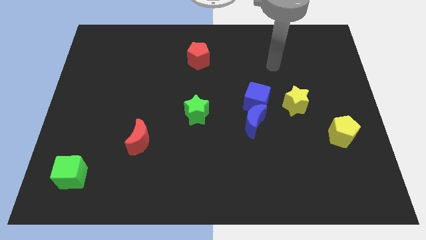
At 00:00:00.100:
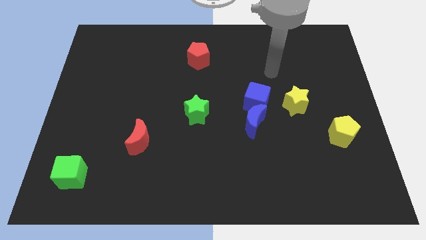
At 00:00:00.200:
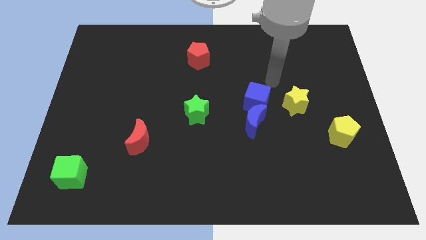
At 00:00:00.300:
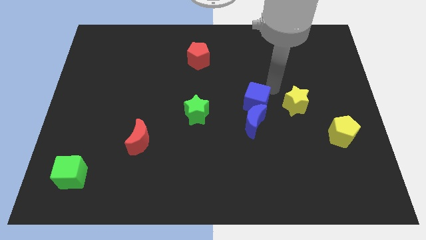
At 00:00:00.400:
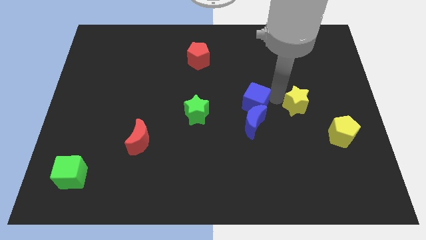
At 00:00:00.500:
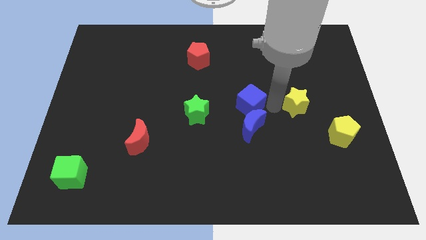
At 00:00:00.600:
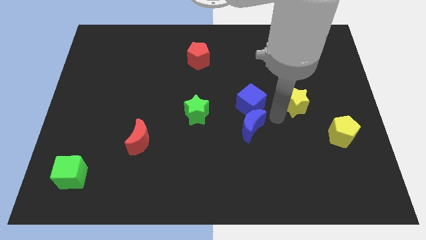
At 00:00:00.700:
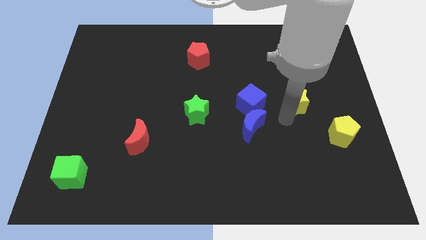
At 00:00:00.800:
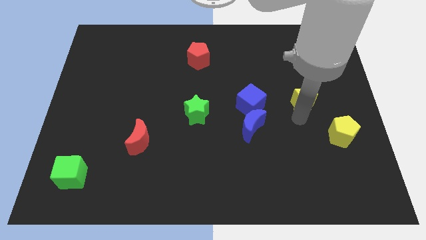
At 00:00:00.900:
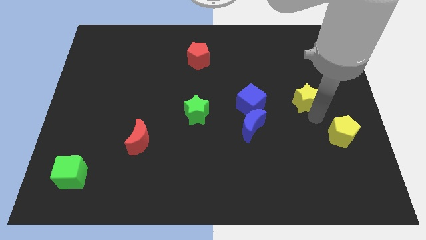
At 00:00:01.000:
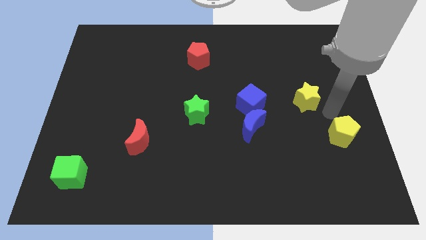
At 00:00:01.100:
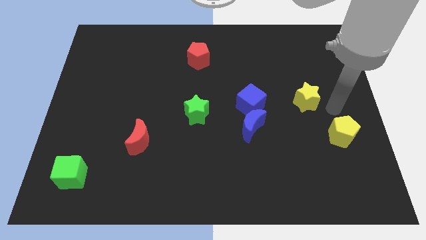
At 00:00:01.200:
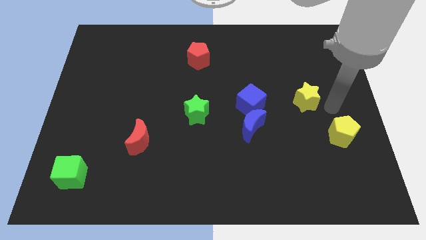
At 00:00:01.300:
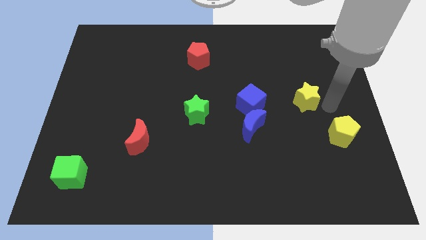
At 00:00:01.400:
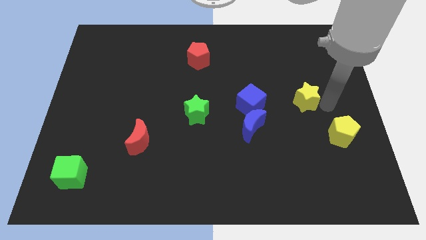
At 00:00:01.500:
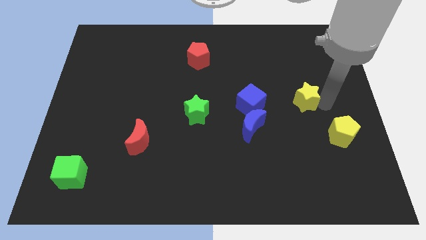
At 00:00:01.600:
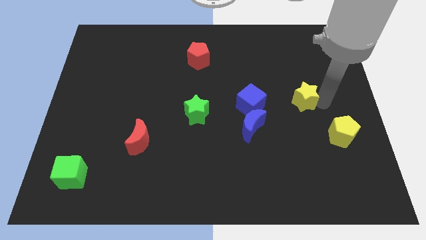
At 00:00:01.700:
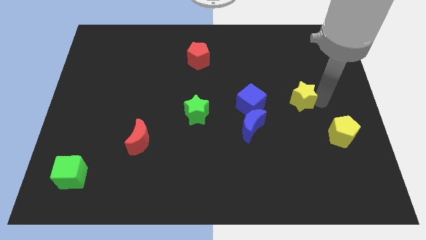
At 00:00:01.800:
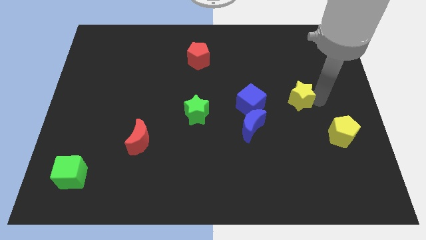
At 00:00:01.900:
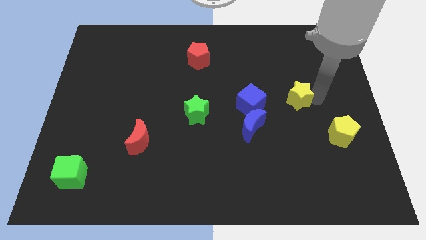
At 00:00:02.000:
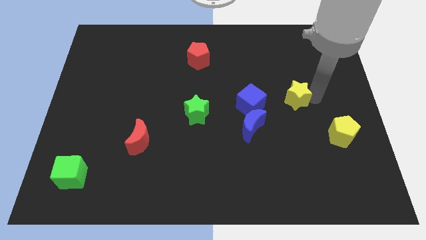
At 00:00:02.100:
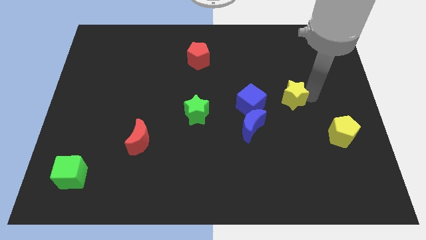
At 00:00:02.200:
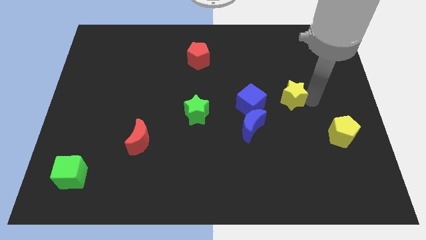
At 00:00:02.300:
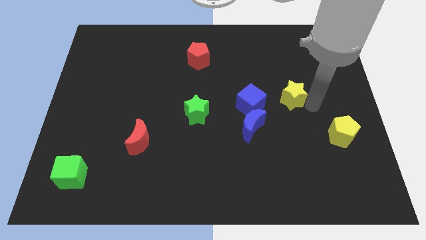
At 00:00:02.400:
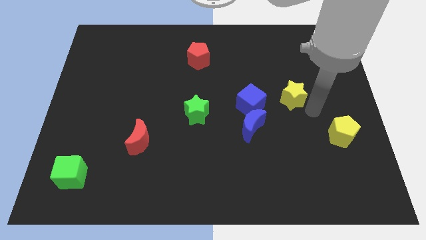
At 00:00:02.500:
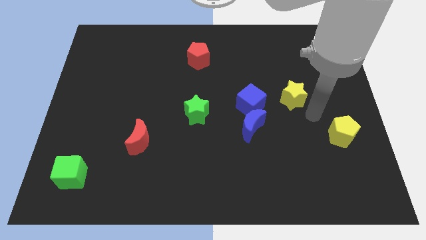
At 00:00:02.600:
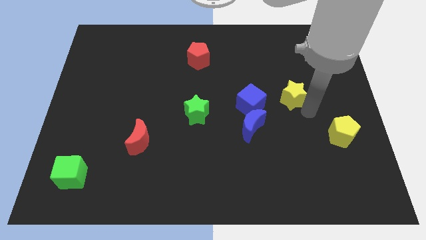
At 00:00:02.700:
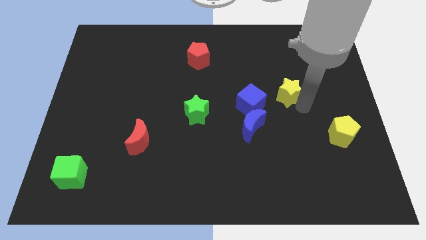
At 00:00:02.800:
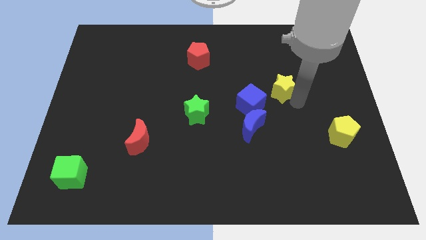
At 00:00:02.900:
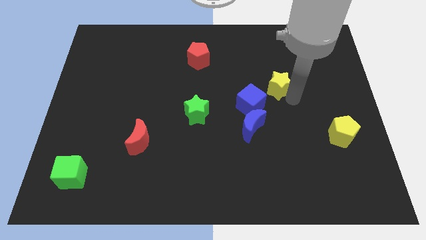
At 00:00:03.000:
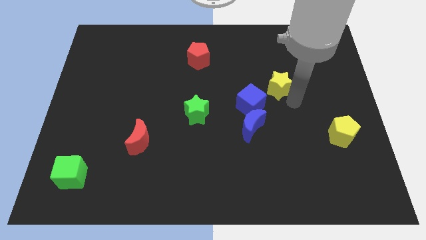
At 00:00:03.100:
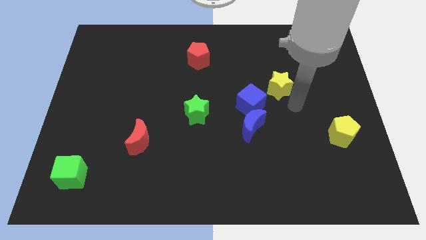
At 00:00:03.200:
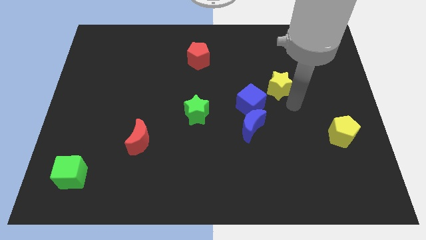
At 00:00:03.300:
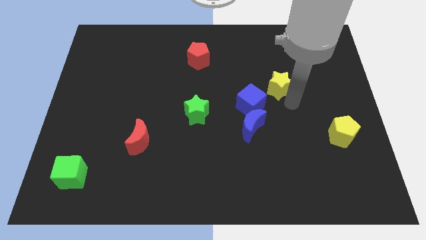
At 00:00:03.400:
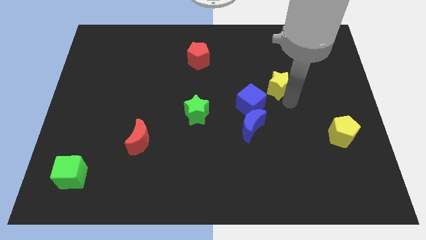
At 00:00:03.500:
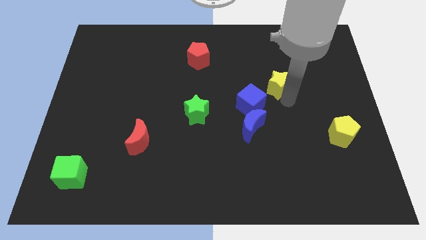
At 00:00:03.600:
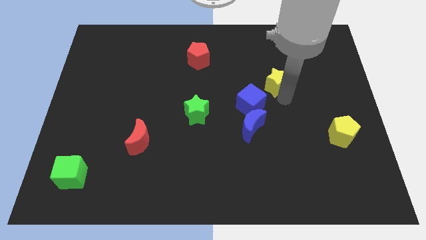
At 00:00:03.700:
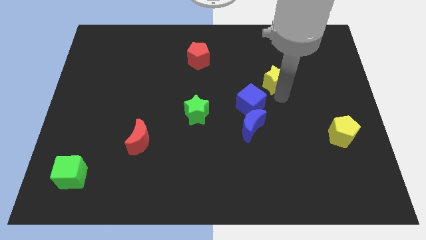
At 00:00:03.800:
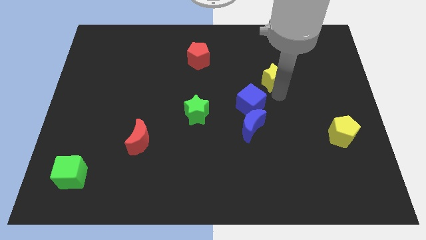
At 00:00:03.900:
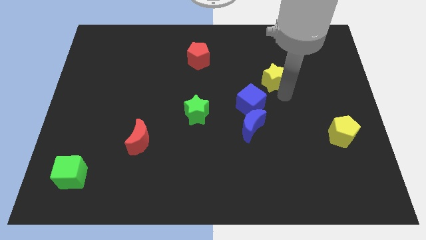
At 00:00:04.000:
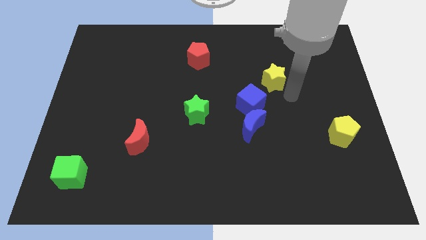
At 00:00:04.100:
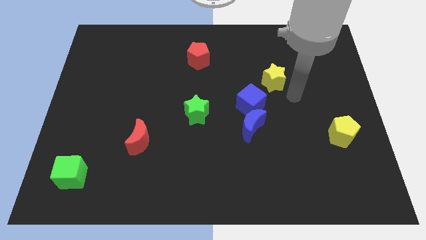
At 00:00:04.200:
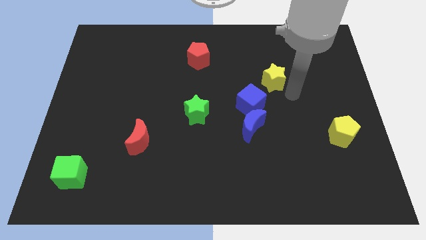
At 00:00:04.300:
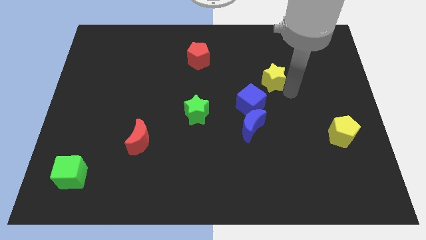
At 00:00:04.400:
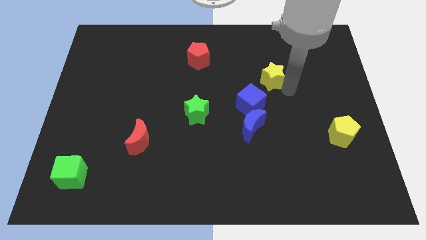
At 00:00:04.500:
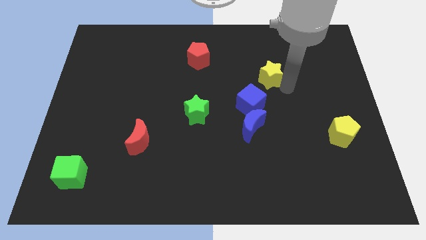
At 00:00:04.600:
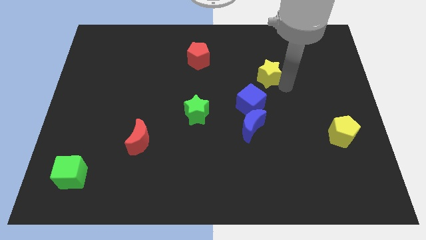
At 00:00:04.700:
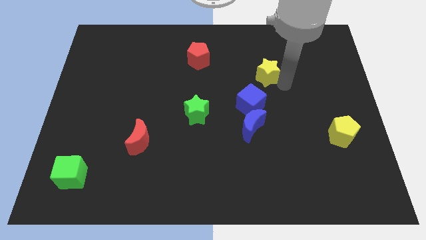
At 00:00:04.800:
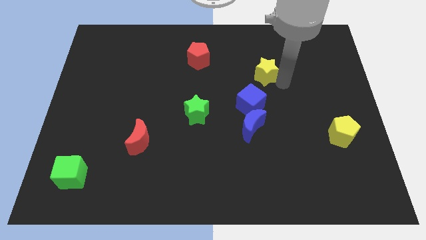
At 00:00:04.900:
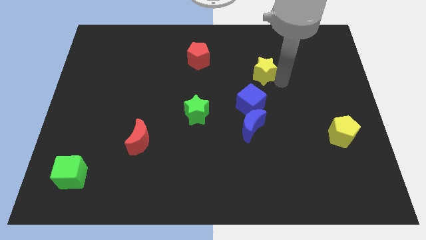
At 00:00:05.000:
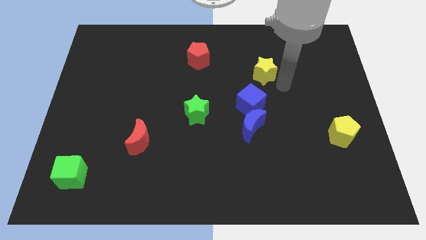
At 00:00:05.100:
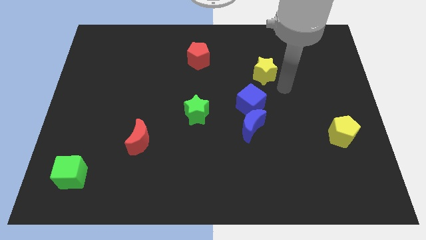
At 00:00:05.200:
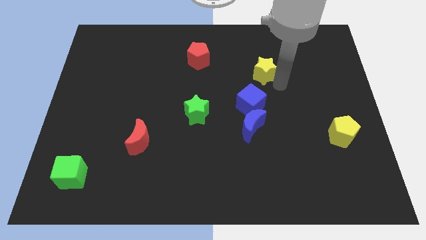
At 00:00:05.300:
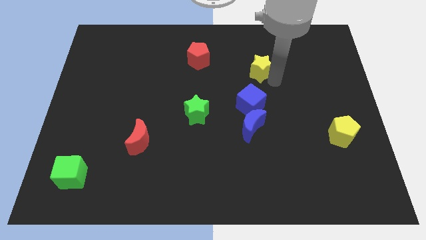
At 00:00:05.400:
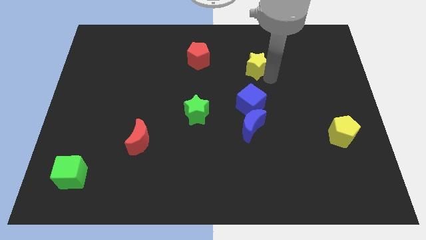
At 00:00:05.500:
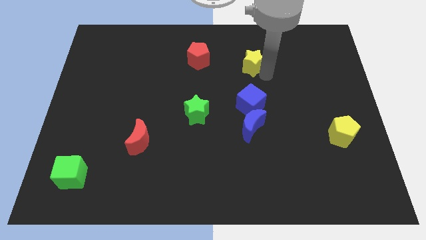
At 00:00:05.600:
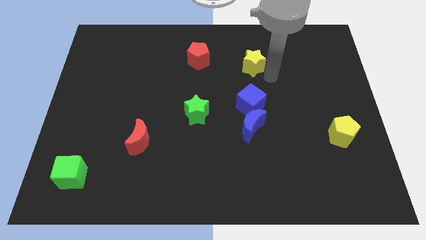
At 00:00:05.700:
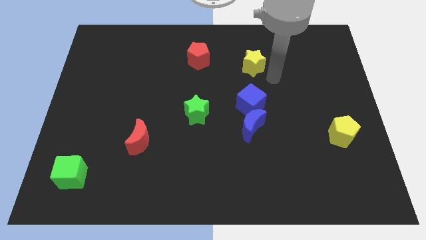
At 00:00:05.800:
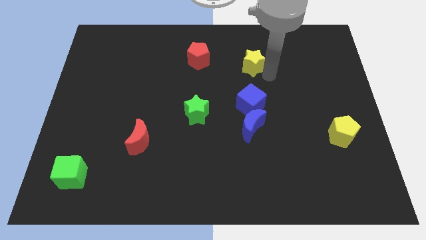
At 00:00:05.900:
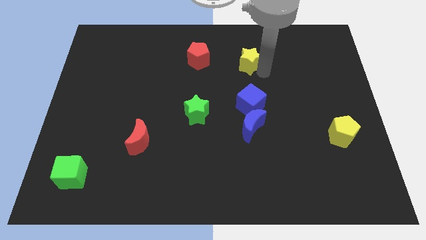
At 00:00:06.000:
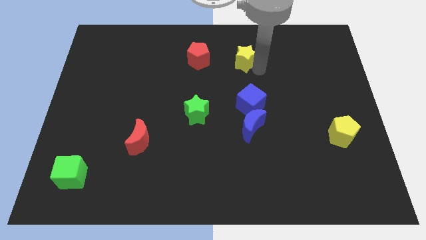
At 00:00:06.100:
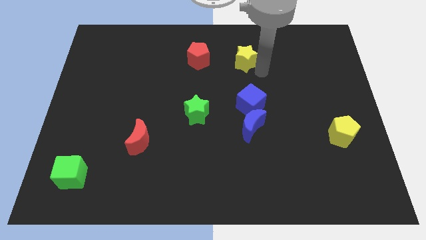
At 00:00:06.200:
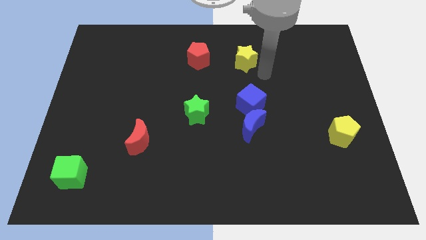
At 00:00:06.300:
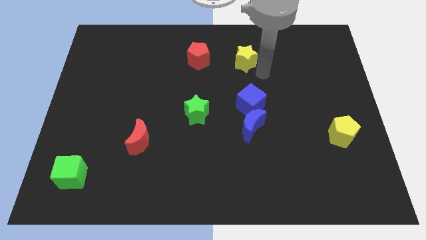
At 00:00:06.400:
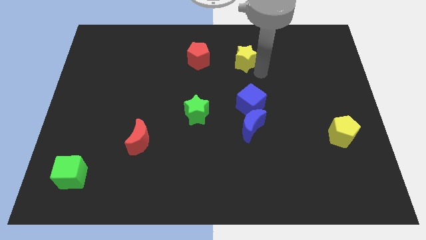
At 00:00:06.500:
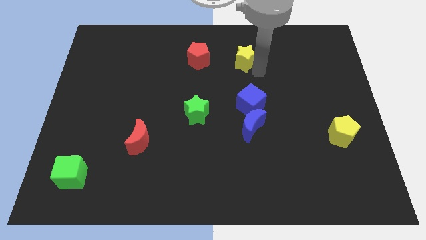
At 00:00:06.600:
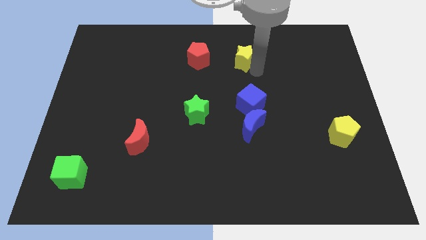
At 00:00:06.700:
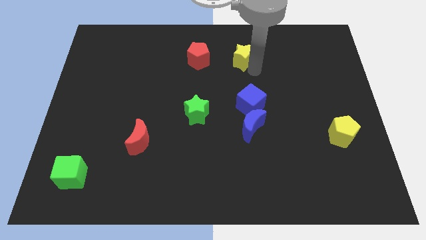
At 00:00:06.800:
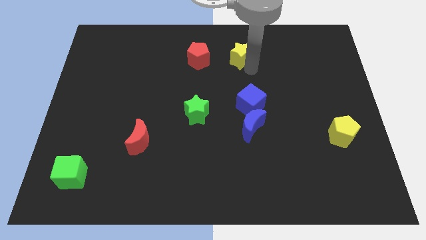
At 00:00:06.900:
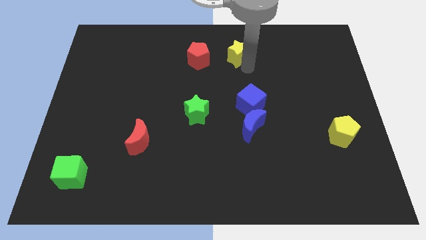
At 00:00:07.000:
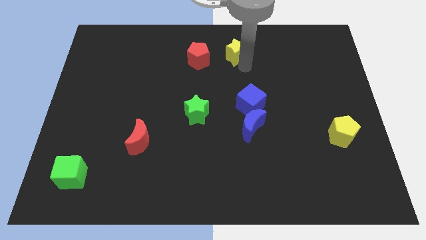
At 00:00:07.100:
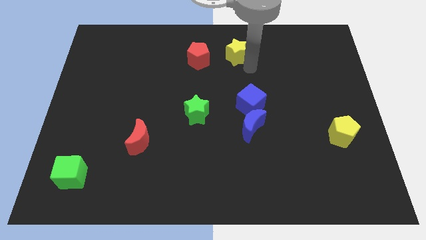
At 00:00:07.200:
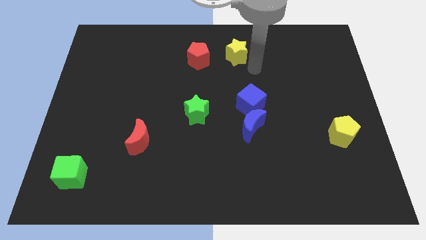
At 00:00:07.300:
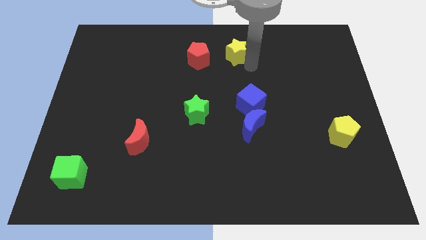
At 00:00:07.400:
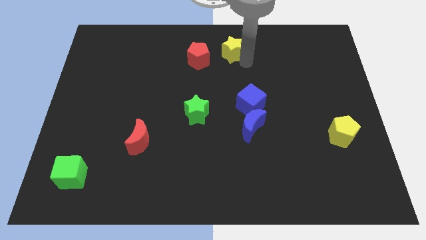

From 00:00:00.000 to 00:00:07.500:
push the yellow star to the top side
